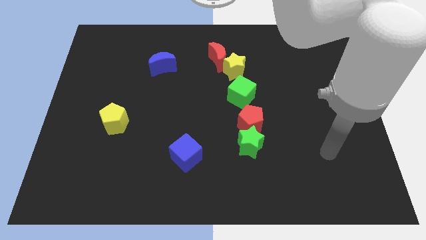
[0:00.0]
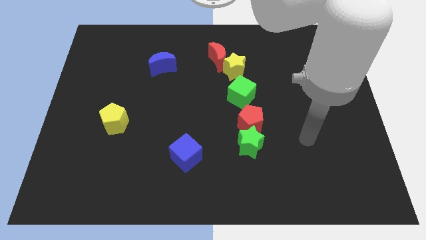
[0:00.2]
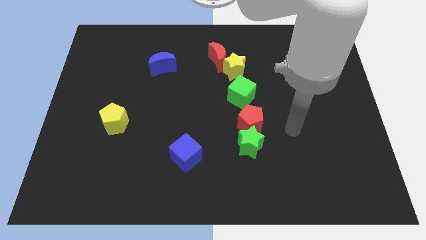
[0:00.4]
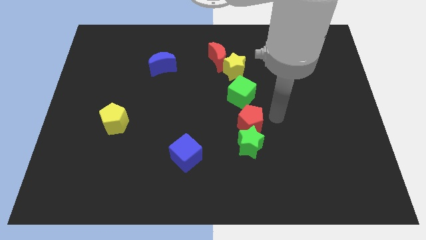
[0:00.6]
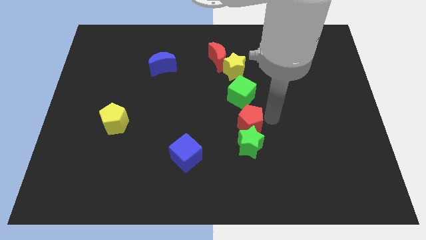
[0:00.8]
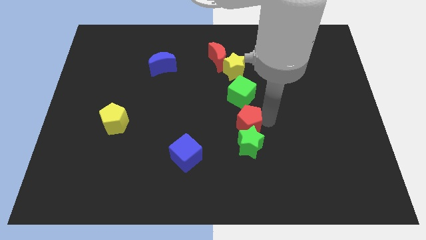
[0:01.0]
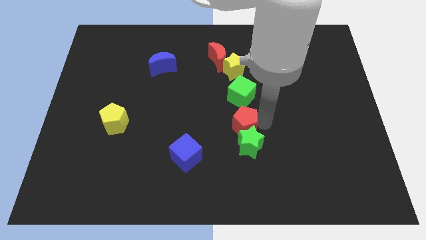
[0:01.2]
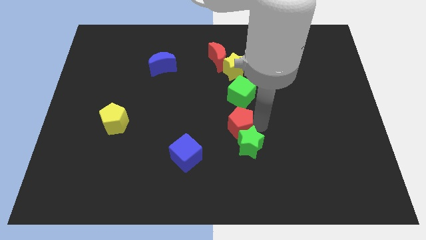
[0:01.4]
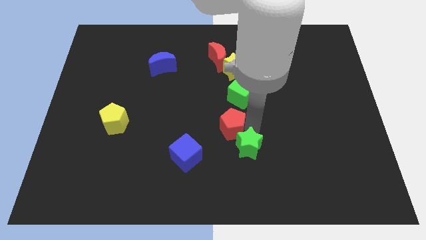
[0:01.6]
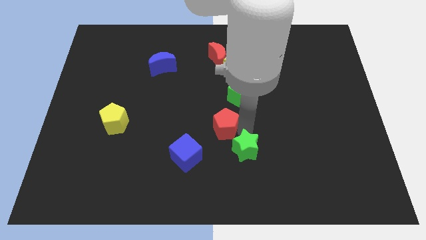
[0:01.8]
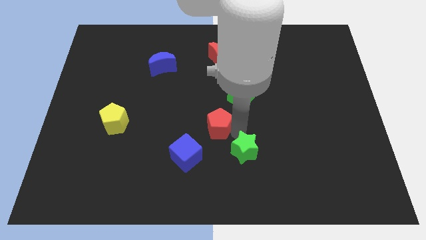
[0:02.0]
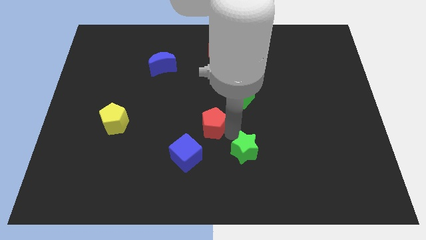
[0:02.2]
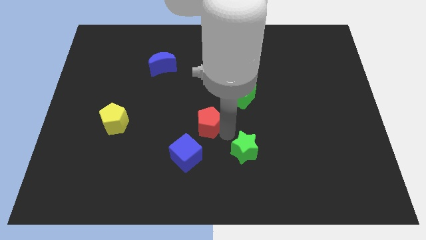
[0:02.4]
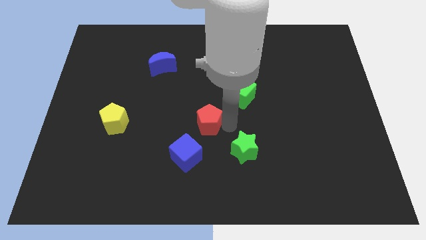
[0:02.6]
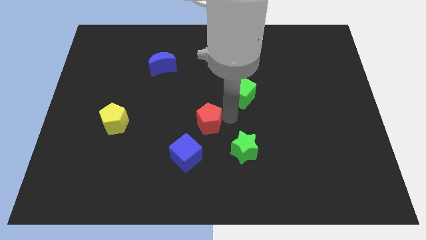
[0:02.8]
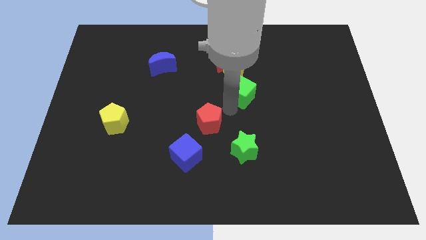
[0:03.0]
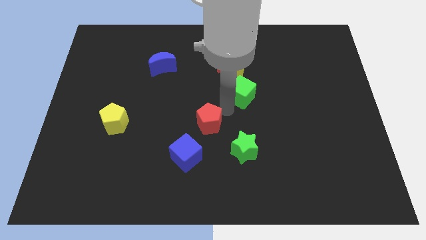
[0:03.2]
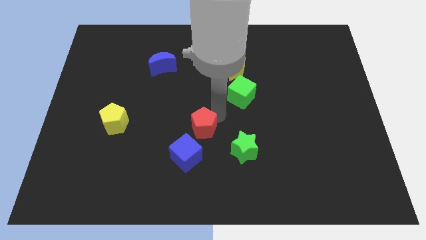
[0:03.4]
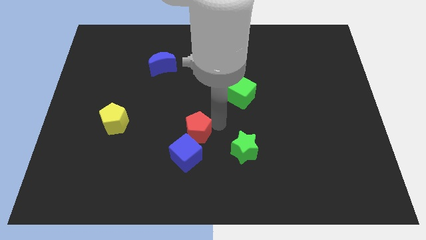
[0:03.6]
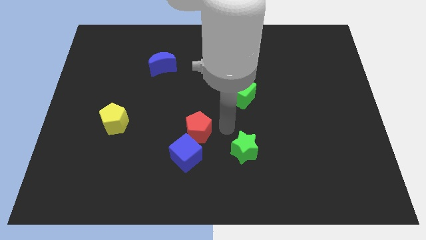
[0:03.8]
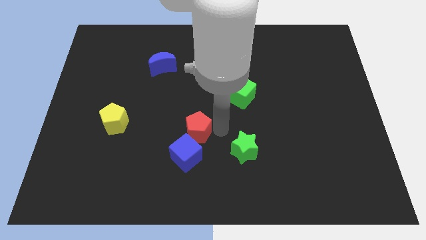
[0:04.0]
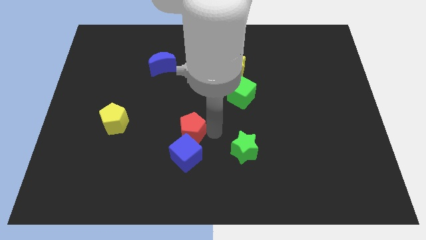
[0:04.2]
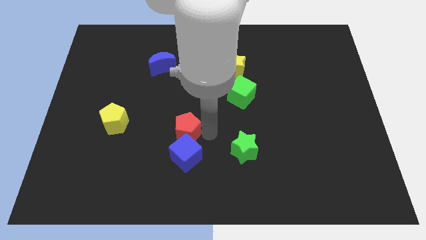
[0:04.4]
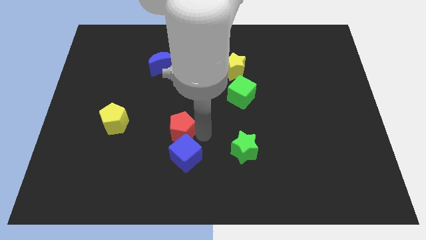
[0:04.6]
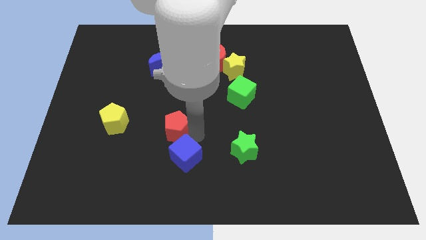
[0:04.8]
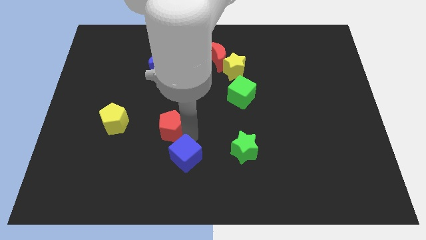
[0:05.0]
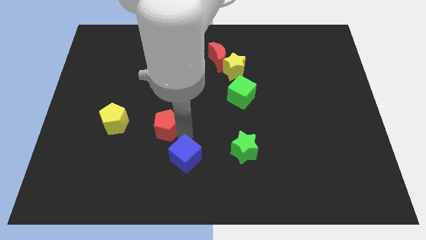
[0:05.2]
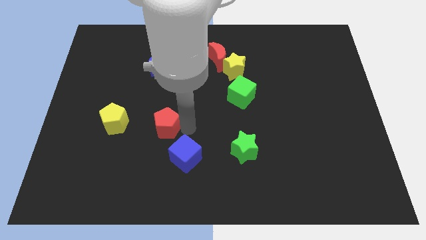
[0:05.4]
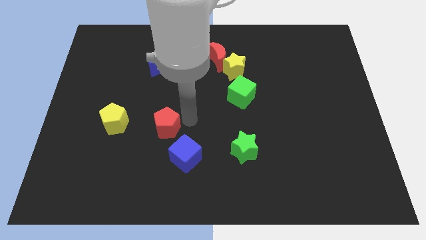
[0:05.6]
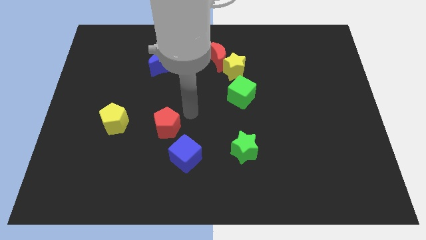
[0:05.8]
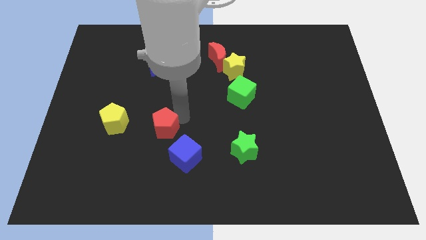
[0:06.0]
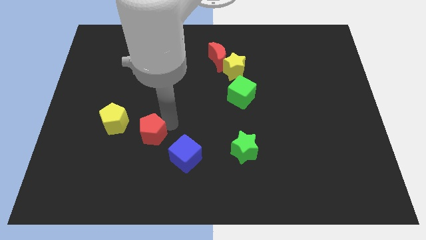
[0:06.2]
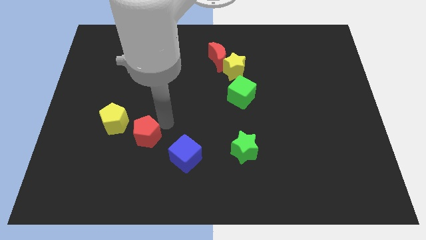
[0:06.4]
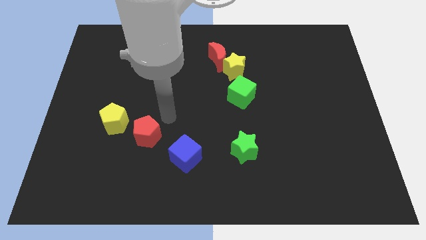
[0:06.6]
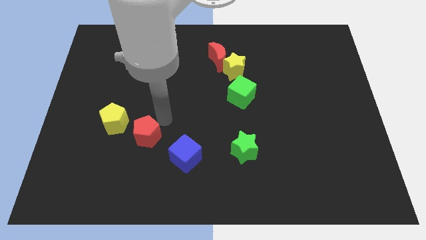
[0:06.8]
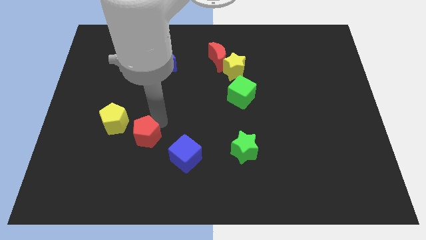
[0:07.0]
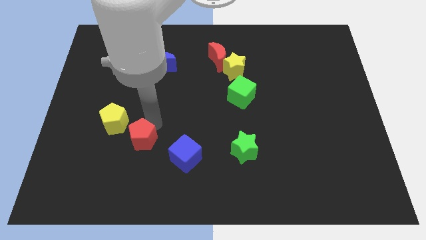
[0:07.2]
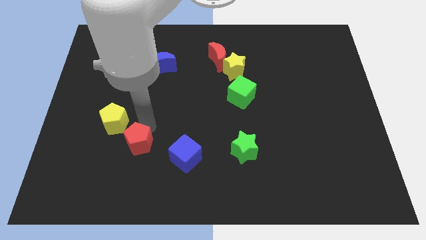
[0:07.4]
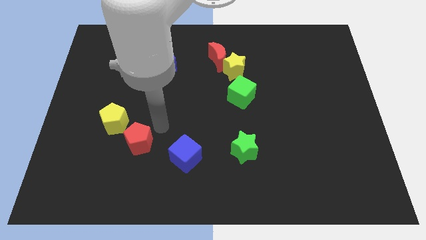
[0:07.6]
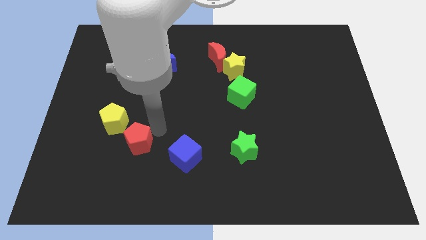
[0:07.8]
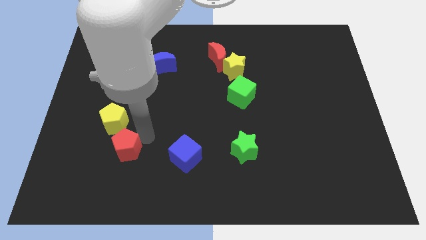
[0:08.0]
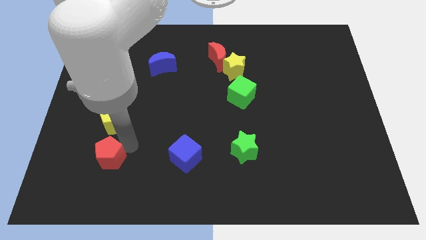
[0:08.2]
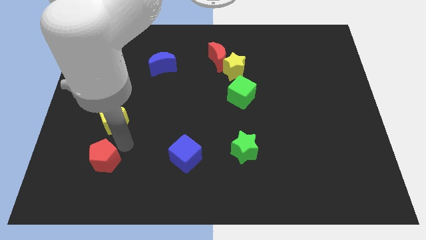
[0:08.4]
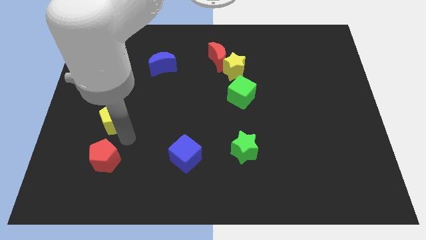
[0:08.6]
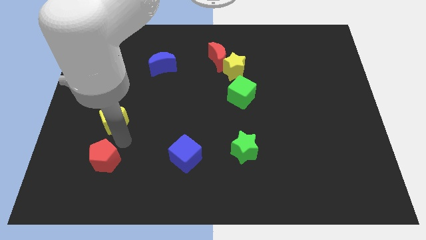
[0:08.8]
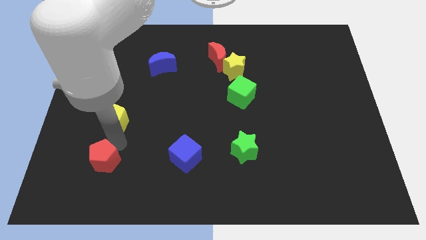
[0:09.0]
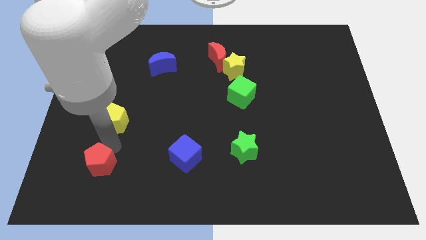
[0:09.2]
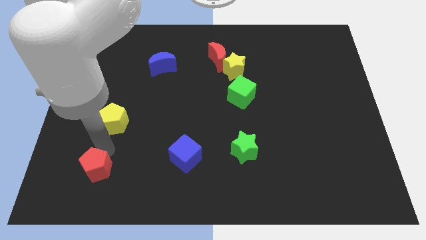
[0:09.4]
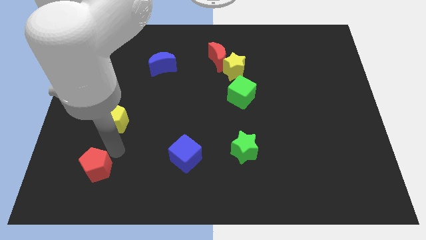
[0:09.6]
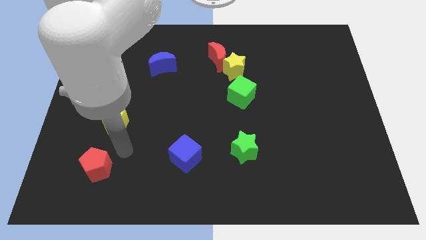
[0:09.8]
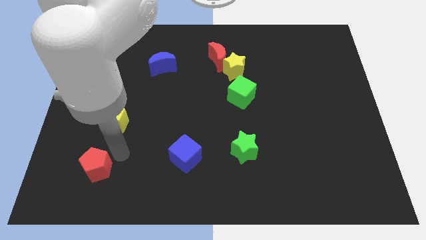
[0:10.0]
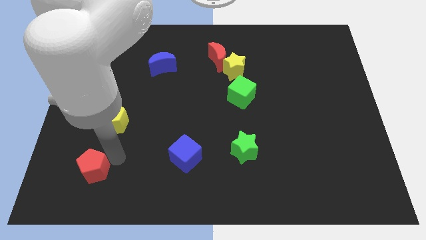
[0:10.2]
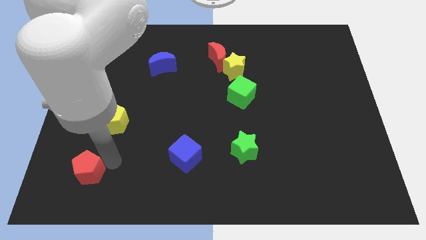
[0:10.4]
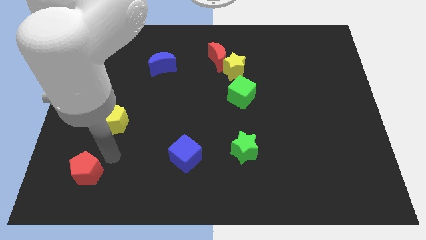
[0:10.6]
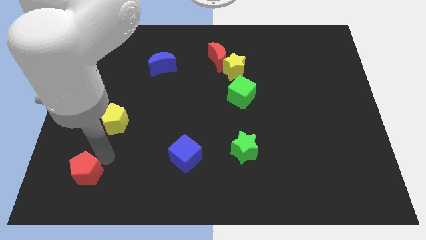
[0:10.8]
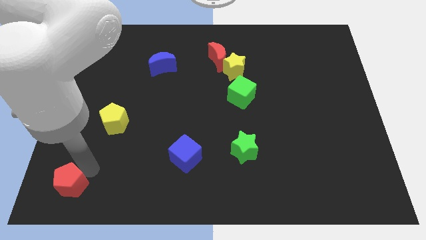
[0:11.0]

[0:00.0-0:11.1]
push the red pentagon to the bottom left corner
